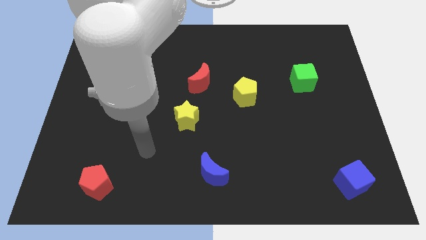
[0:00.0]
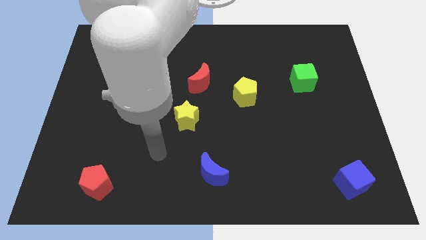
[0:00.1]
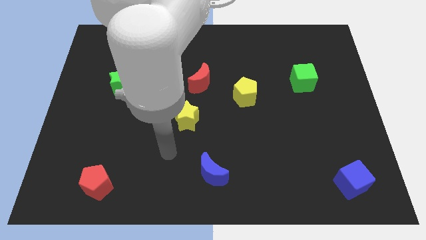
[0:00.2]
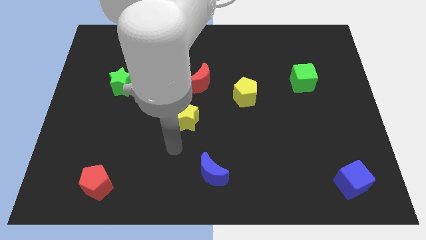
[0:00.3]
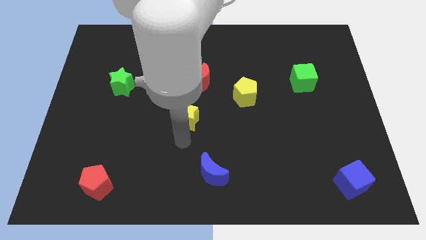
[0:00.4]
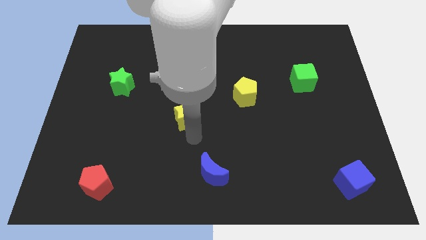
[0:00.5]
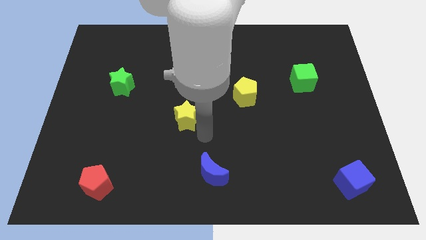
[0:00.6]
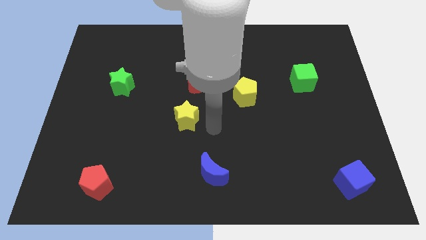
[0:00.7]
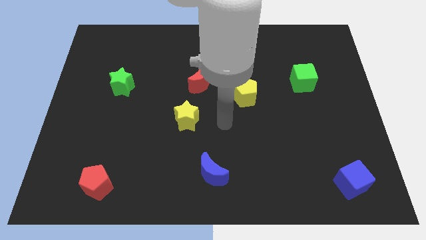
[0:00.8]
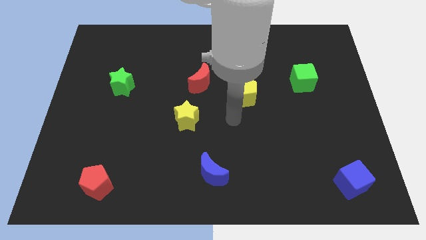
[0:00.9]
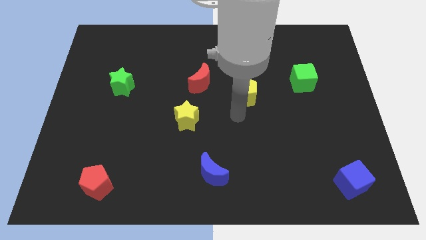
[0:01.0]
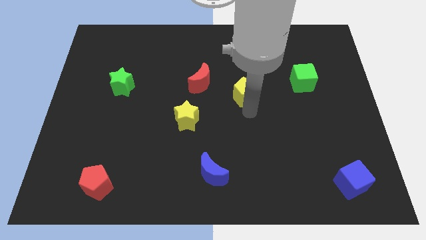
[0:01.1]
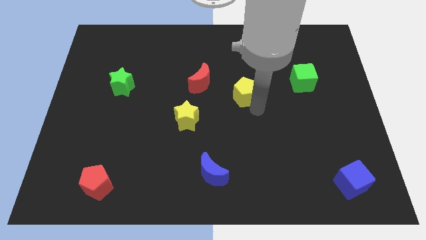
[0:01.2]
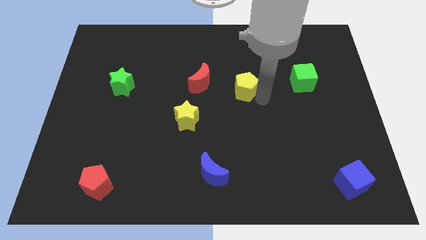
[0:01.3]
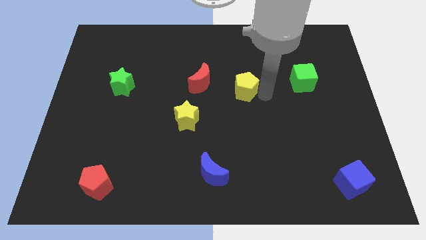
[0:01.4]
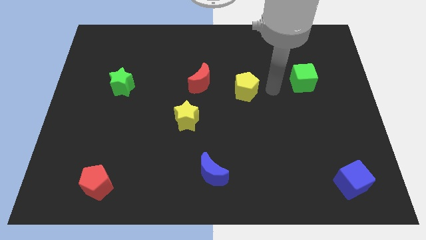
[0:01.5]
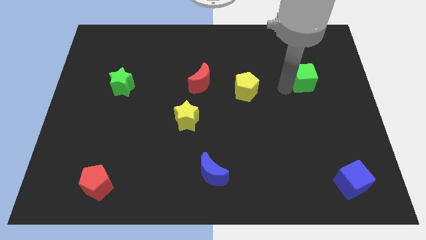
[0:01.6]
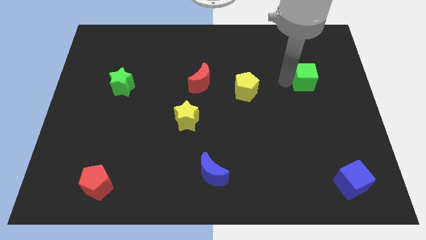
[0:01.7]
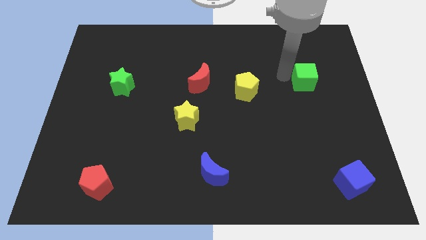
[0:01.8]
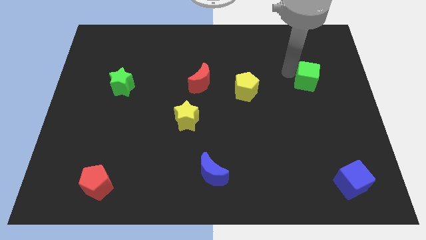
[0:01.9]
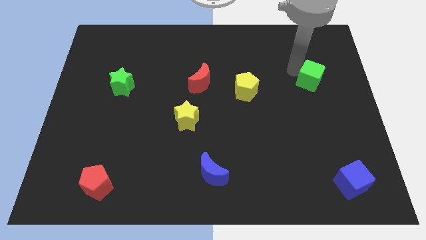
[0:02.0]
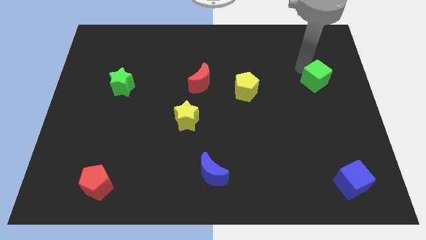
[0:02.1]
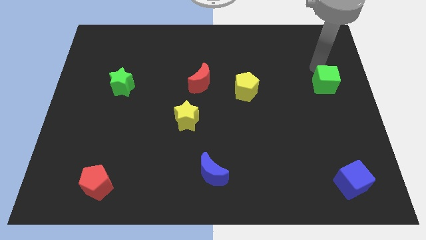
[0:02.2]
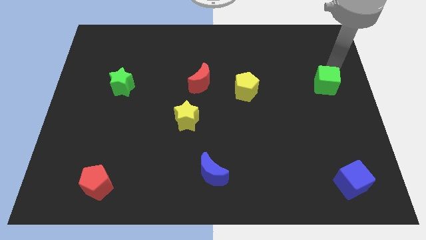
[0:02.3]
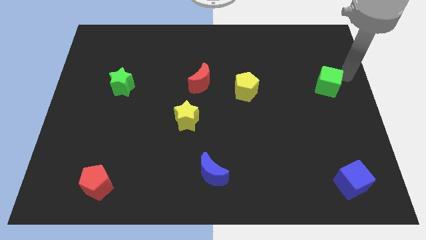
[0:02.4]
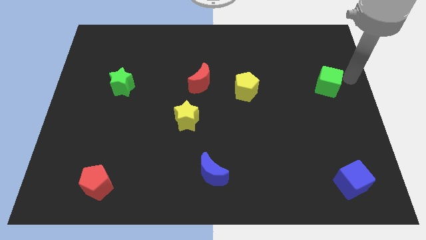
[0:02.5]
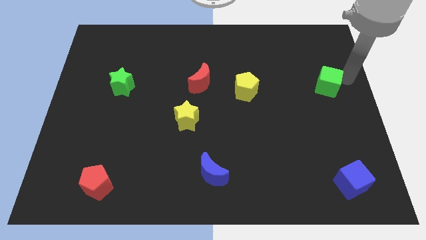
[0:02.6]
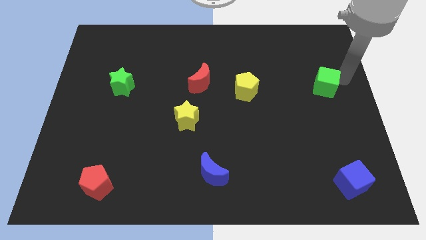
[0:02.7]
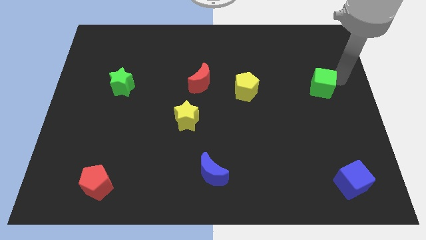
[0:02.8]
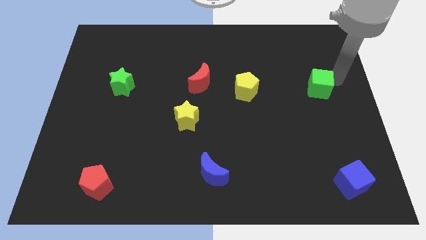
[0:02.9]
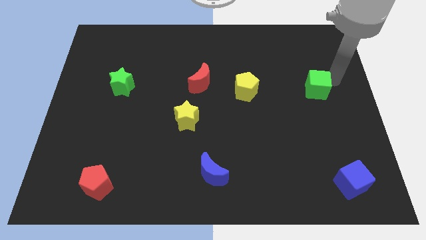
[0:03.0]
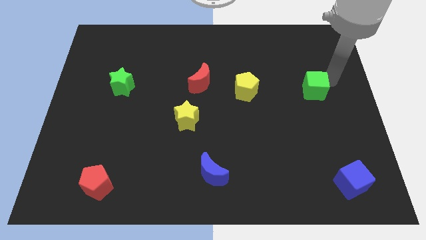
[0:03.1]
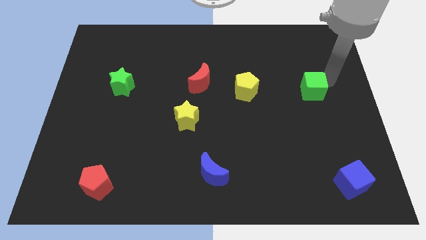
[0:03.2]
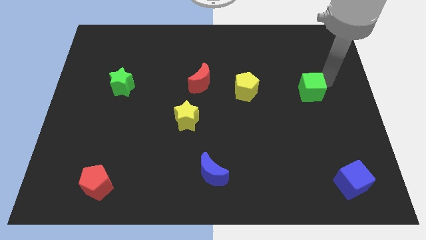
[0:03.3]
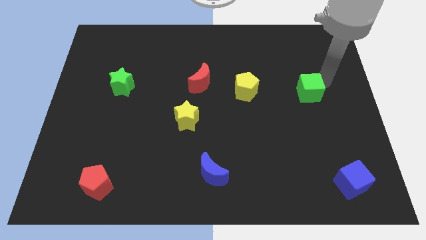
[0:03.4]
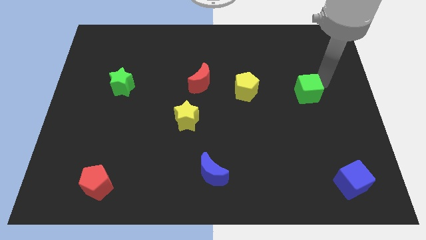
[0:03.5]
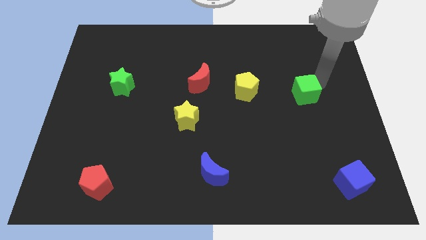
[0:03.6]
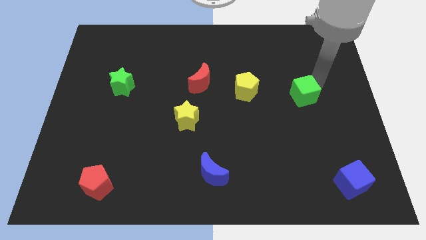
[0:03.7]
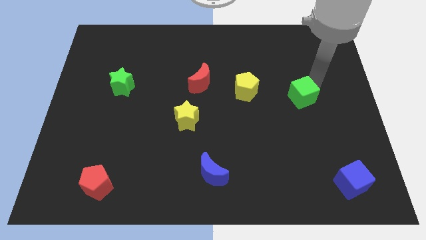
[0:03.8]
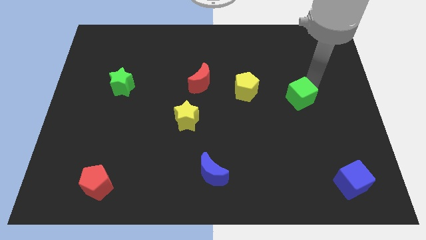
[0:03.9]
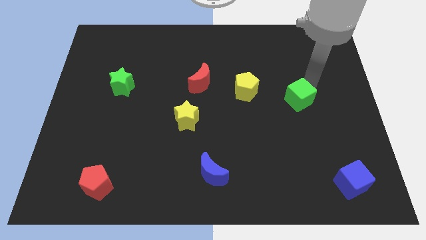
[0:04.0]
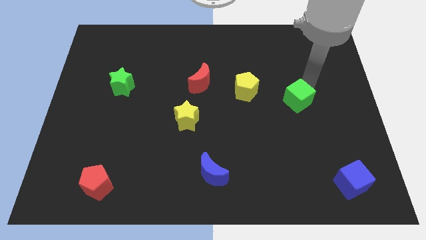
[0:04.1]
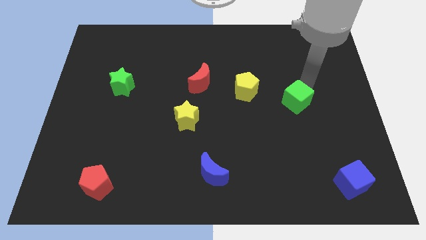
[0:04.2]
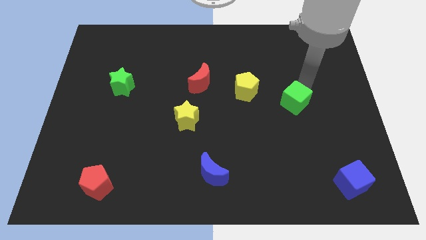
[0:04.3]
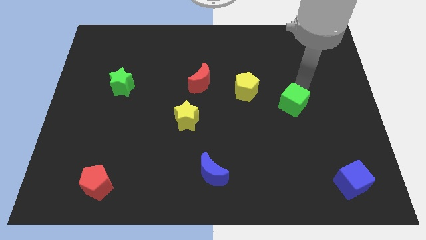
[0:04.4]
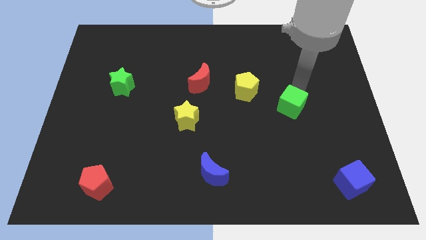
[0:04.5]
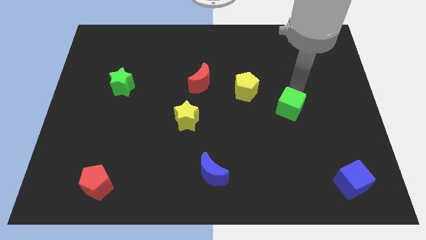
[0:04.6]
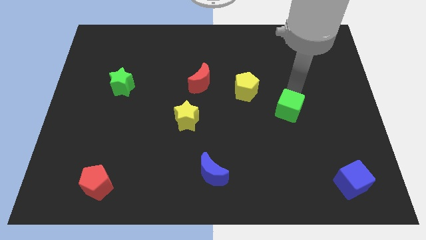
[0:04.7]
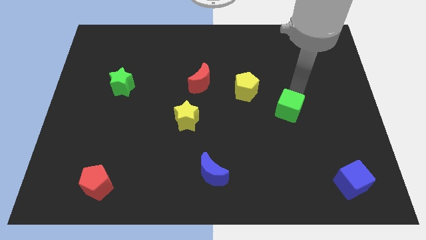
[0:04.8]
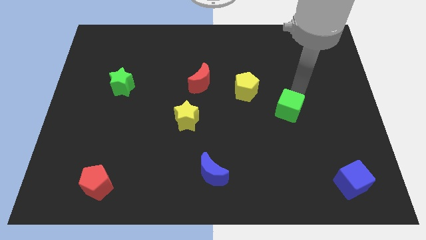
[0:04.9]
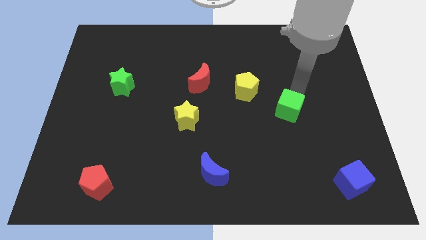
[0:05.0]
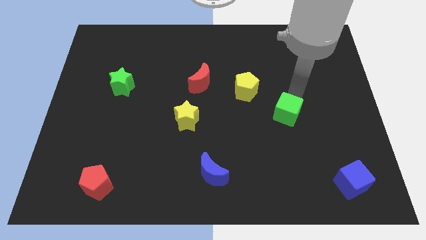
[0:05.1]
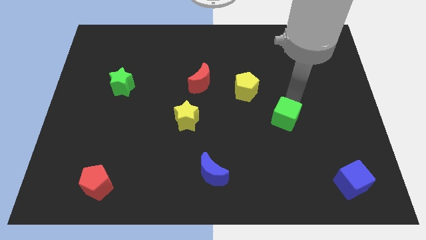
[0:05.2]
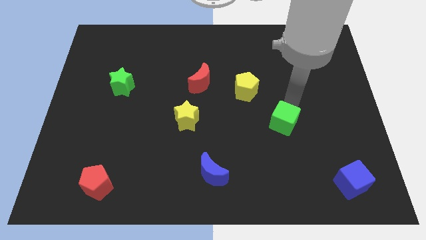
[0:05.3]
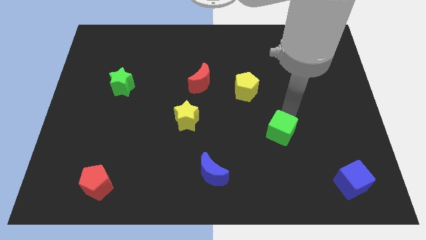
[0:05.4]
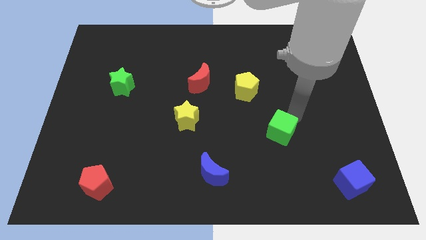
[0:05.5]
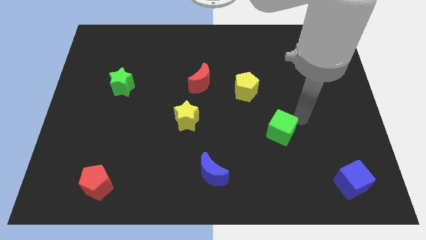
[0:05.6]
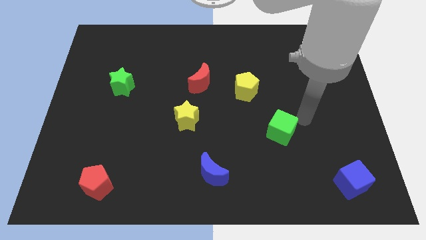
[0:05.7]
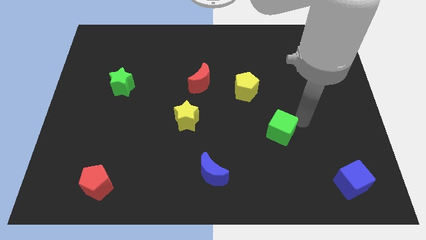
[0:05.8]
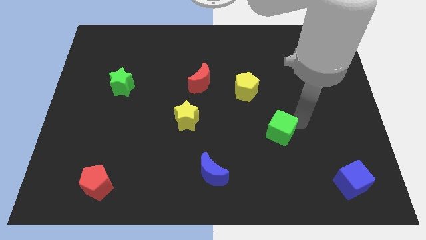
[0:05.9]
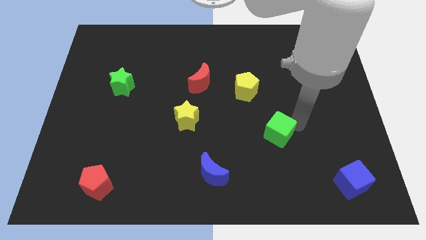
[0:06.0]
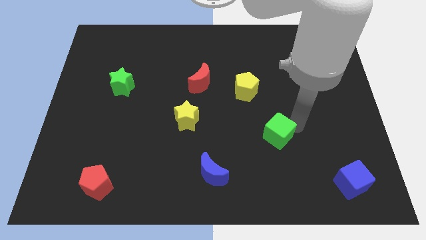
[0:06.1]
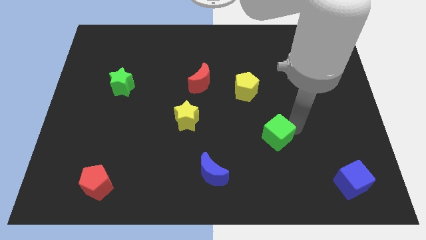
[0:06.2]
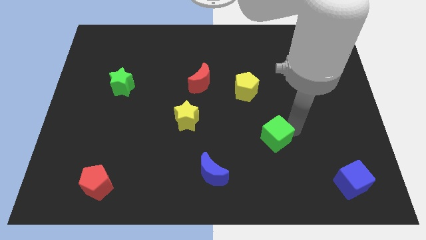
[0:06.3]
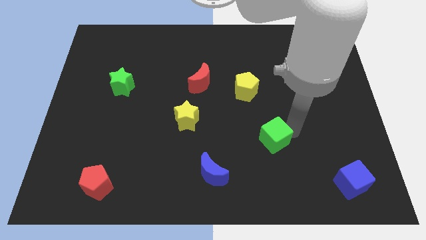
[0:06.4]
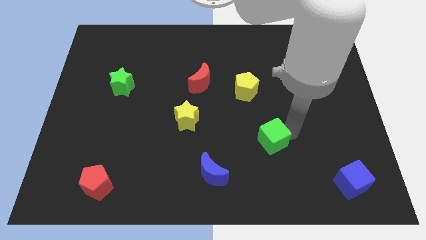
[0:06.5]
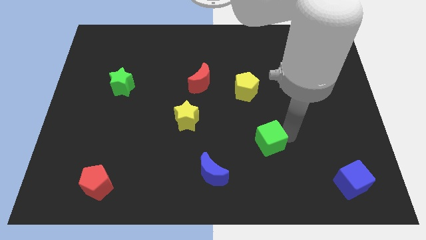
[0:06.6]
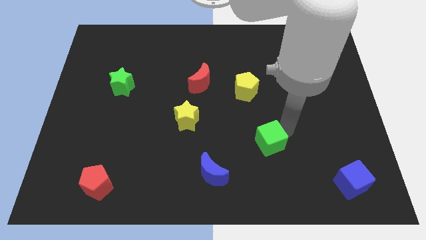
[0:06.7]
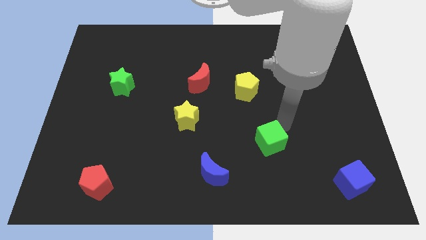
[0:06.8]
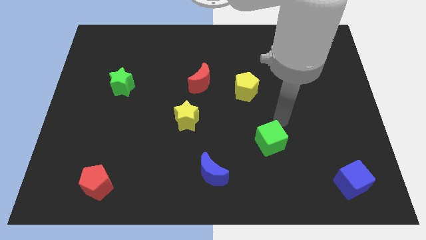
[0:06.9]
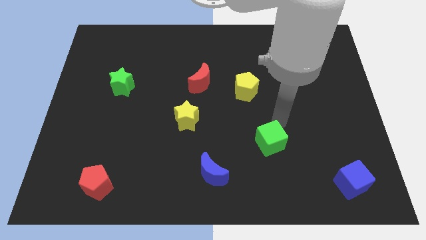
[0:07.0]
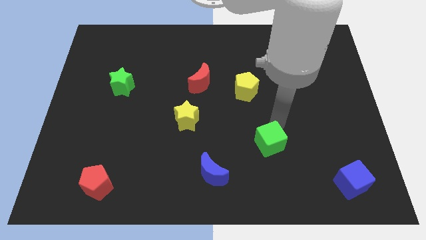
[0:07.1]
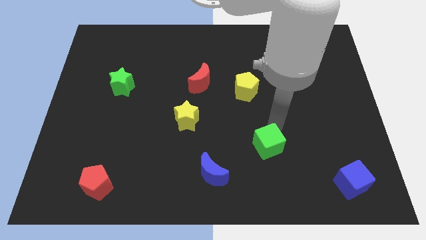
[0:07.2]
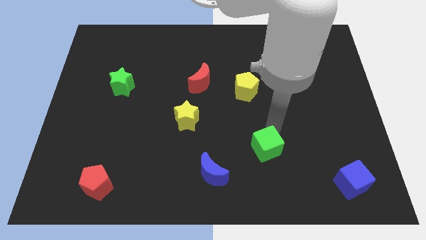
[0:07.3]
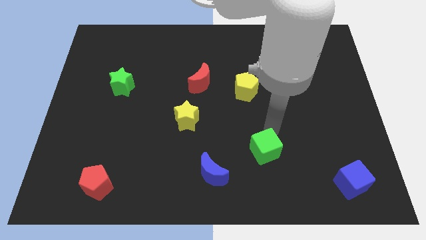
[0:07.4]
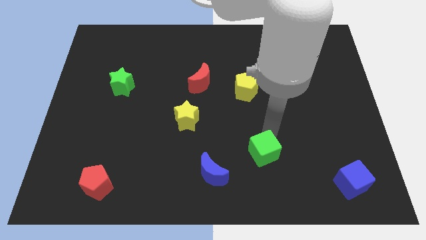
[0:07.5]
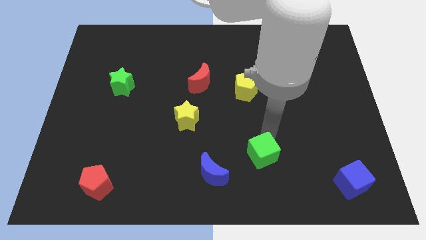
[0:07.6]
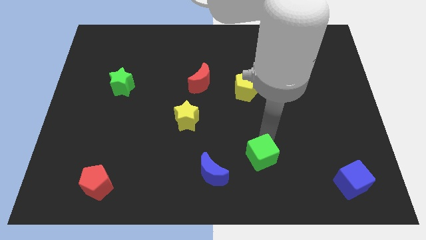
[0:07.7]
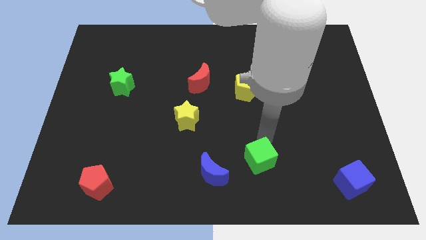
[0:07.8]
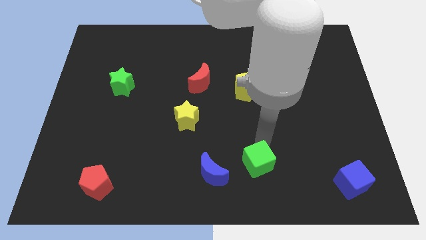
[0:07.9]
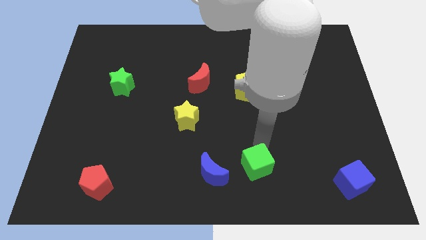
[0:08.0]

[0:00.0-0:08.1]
slide the green cube to the bottom
